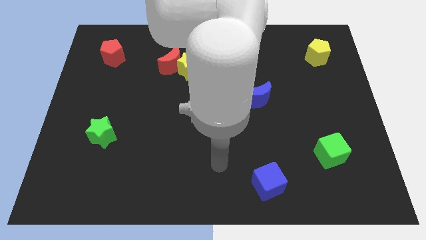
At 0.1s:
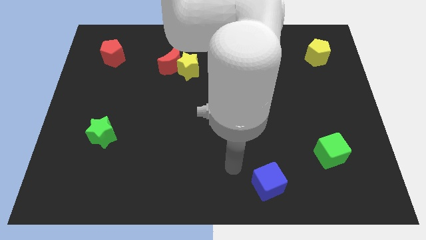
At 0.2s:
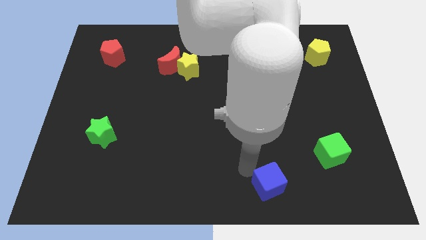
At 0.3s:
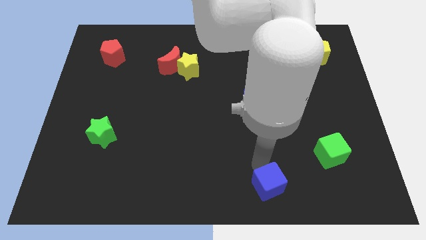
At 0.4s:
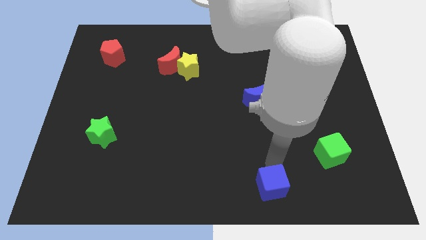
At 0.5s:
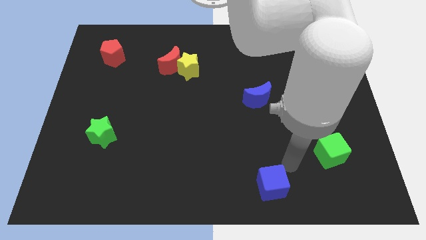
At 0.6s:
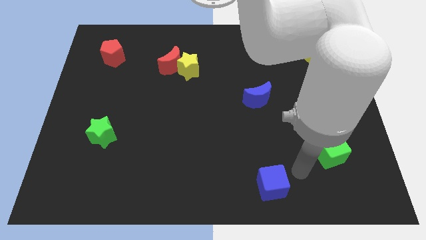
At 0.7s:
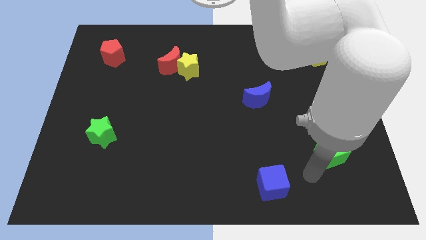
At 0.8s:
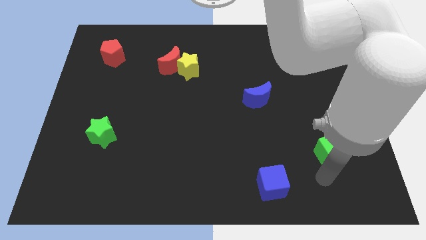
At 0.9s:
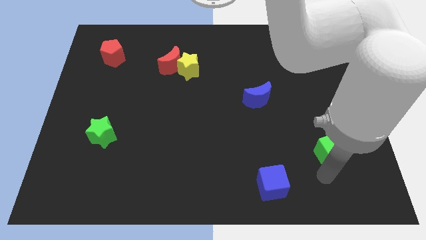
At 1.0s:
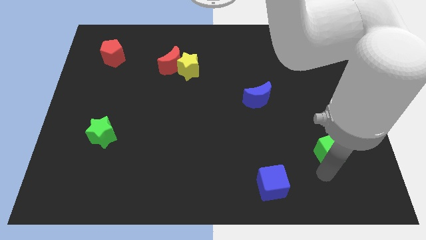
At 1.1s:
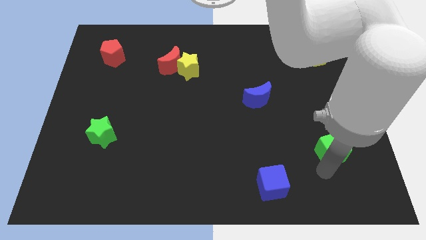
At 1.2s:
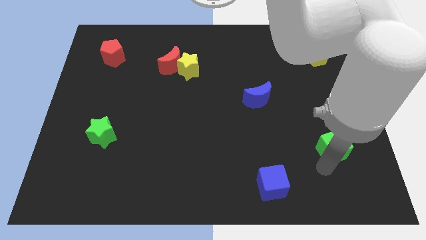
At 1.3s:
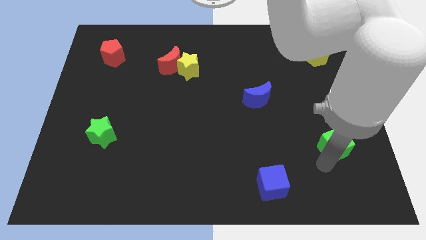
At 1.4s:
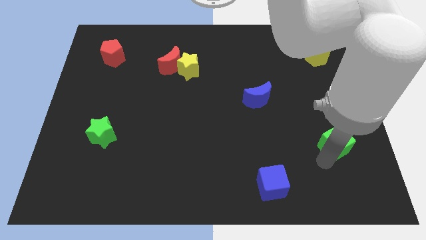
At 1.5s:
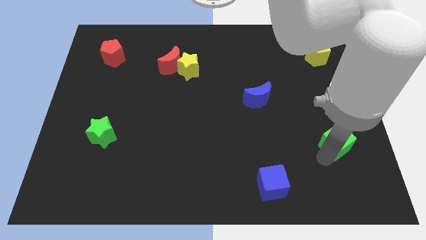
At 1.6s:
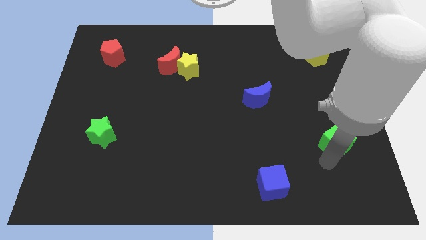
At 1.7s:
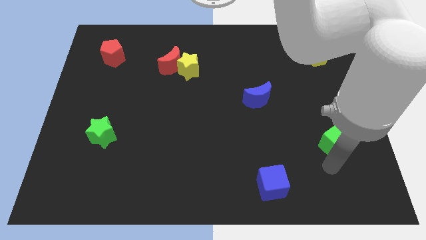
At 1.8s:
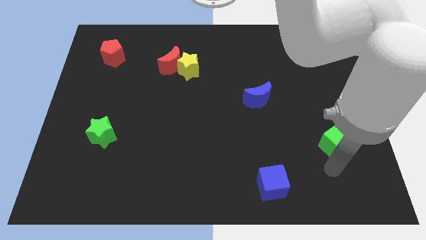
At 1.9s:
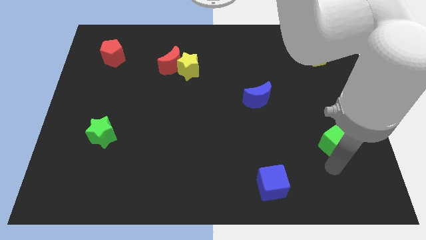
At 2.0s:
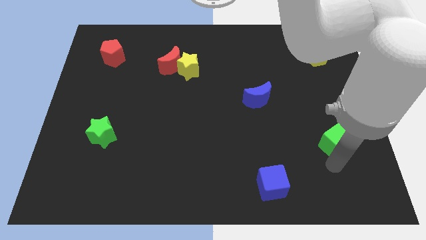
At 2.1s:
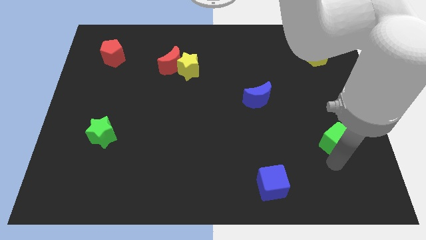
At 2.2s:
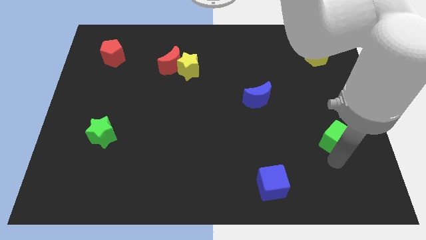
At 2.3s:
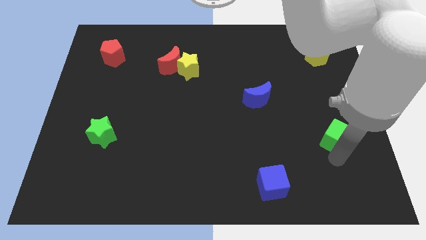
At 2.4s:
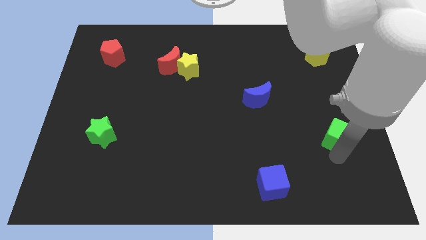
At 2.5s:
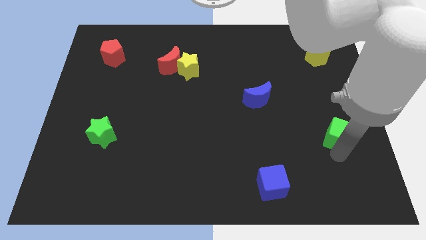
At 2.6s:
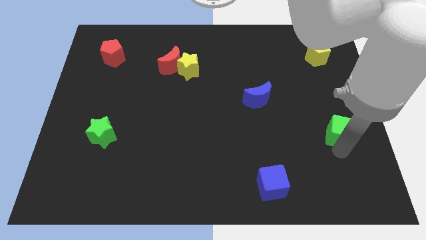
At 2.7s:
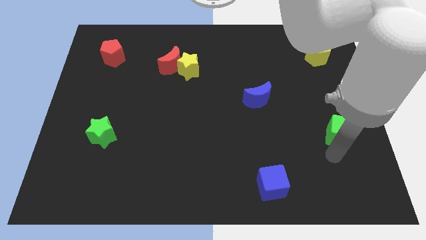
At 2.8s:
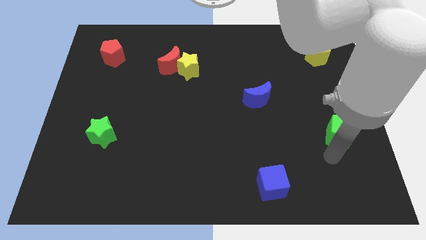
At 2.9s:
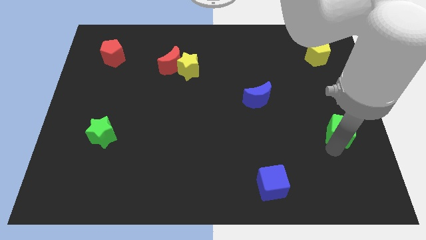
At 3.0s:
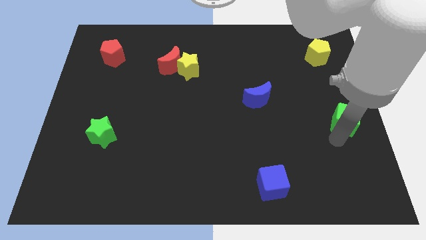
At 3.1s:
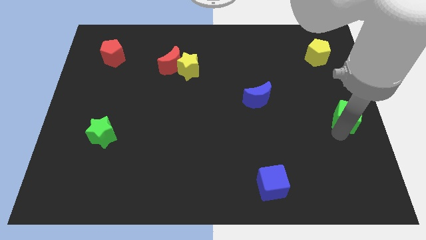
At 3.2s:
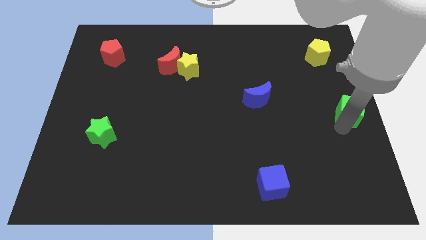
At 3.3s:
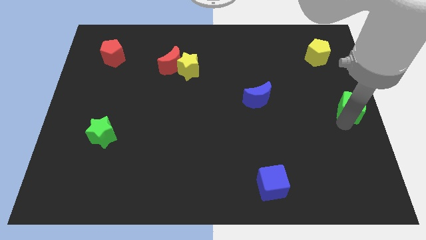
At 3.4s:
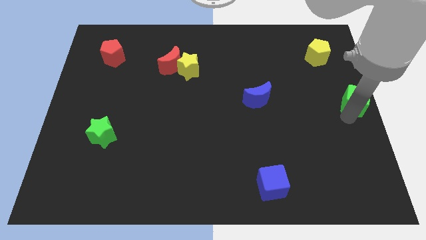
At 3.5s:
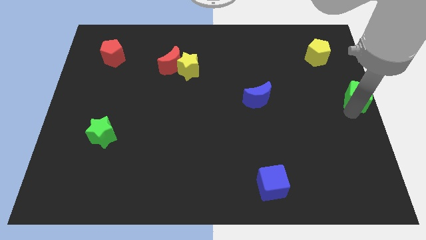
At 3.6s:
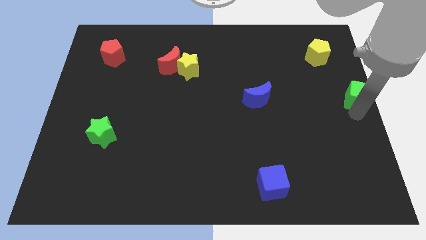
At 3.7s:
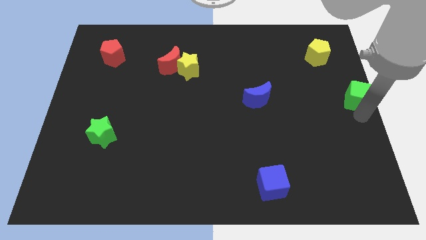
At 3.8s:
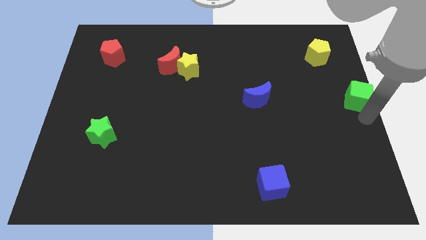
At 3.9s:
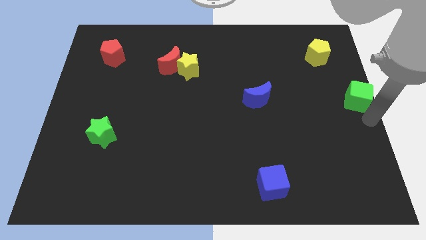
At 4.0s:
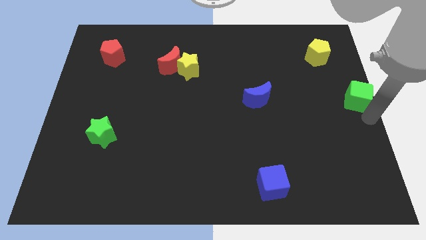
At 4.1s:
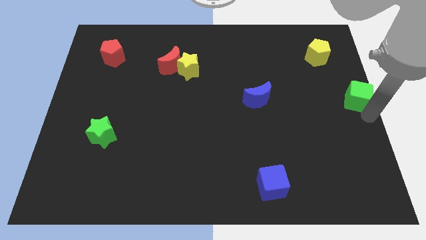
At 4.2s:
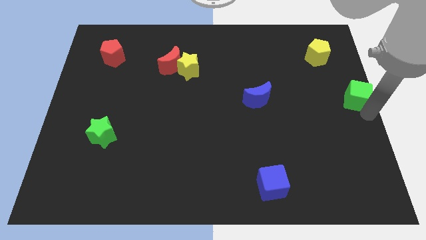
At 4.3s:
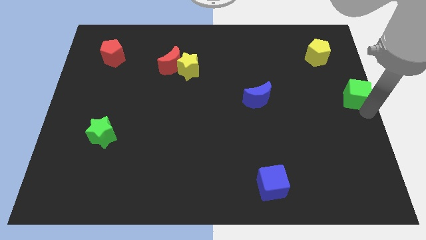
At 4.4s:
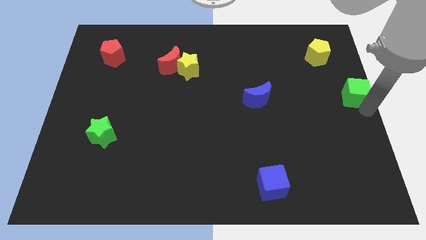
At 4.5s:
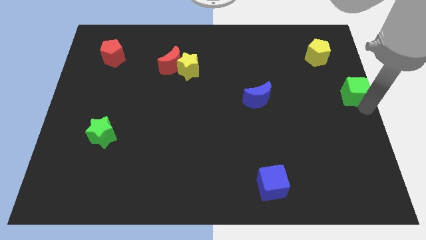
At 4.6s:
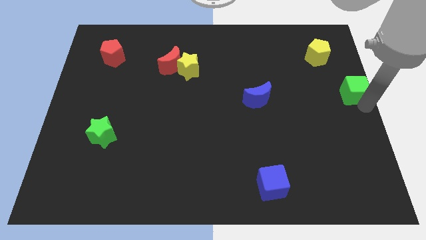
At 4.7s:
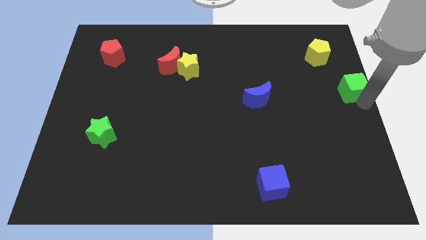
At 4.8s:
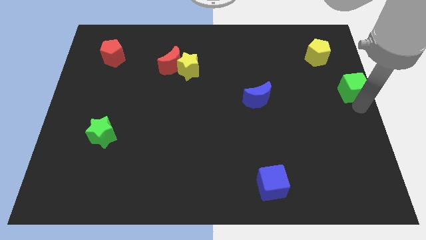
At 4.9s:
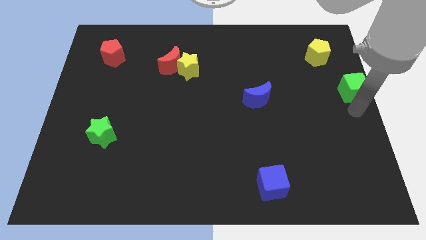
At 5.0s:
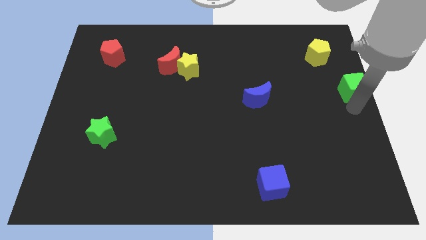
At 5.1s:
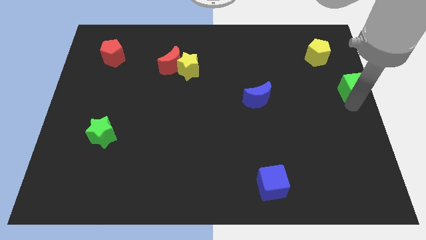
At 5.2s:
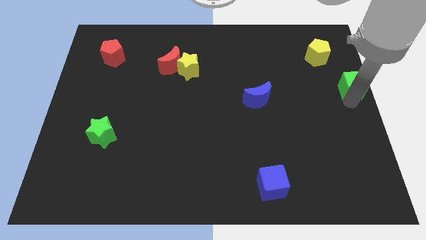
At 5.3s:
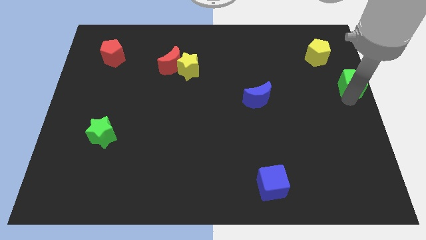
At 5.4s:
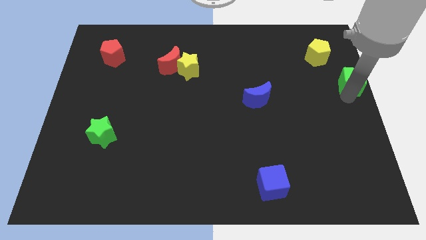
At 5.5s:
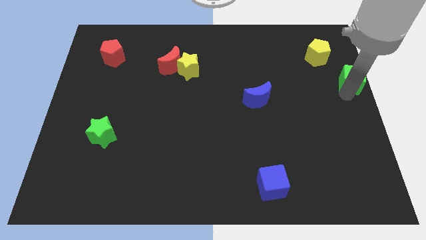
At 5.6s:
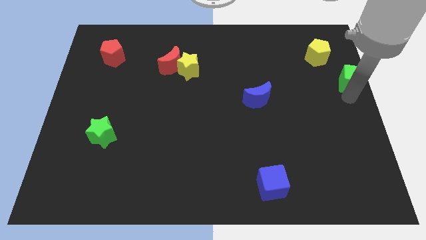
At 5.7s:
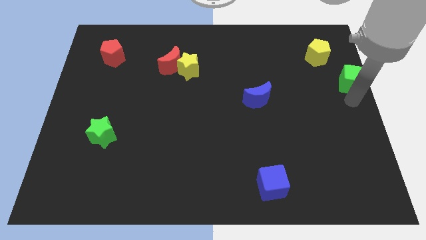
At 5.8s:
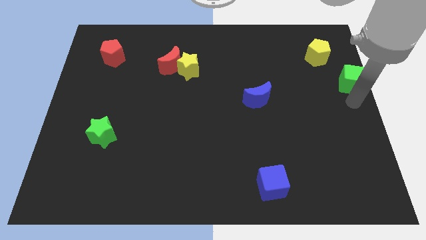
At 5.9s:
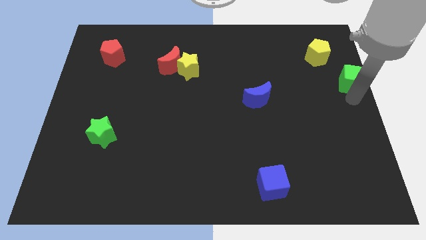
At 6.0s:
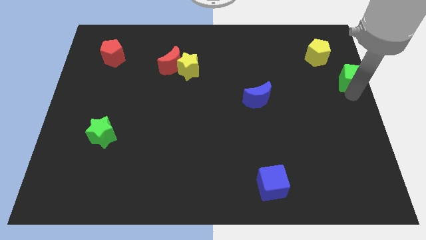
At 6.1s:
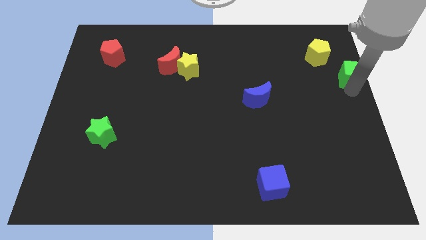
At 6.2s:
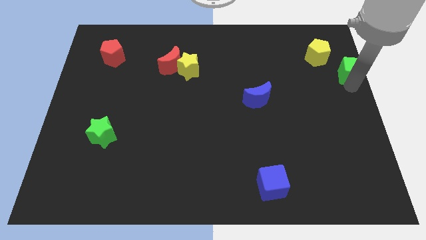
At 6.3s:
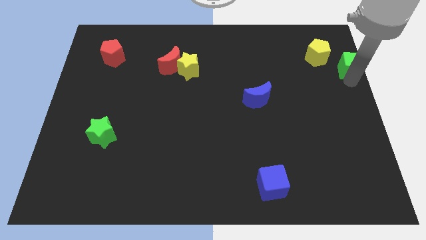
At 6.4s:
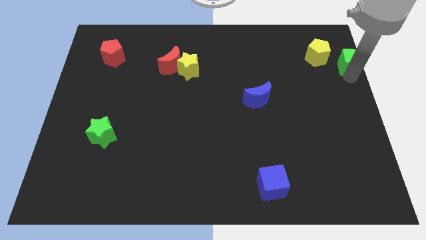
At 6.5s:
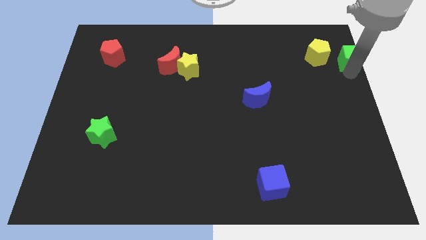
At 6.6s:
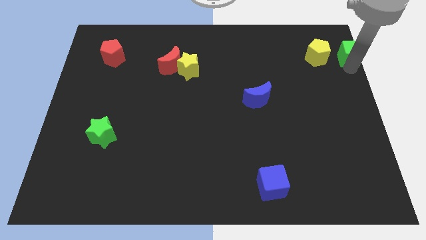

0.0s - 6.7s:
push the green cube to the top right of the board
